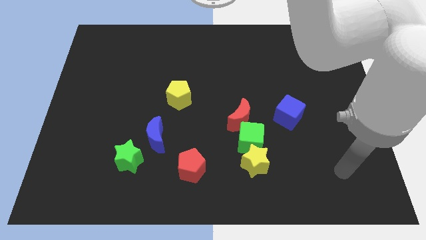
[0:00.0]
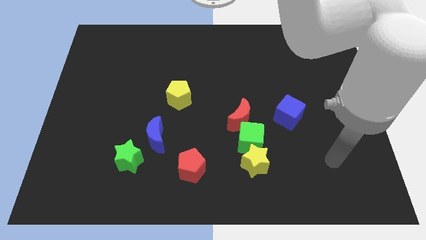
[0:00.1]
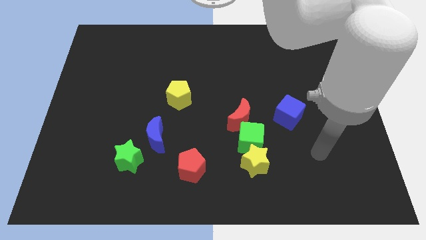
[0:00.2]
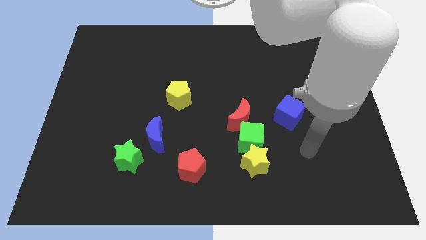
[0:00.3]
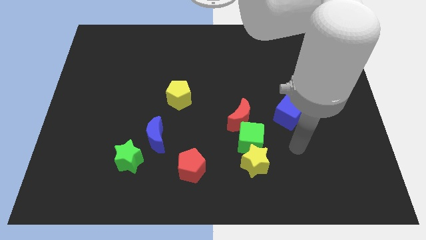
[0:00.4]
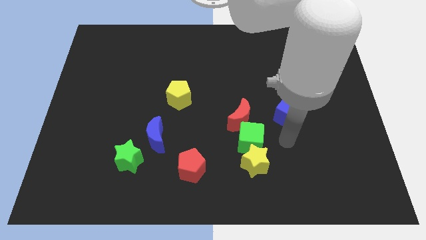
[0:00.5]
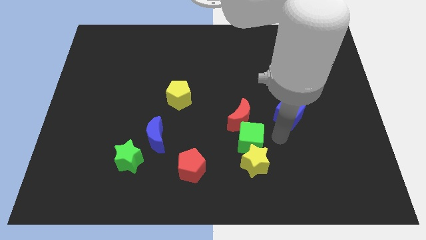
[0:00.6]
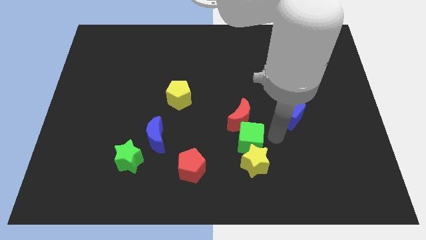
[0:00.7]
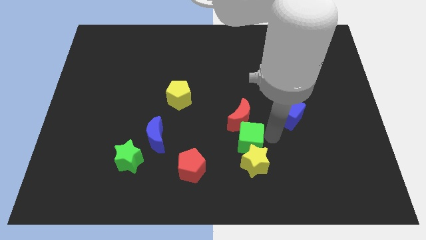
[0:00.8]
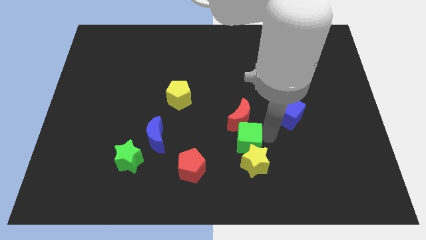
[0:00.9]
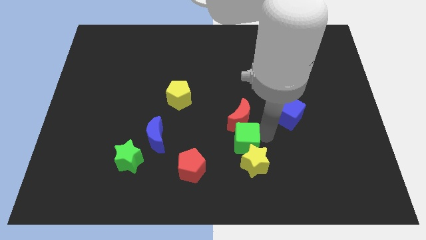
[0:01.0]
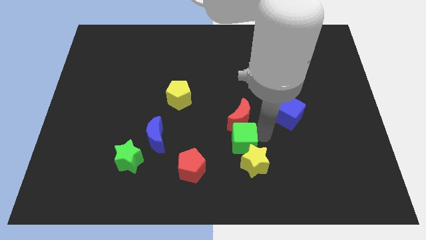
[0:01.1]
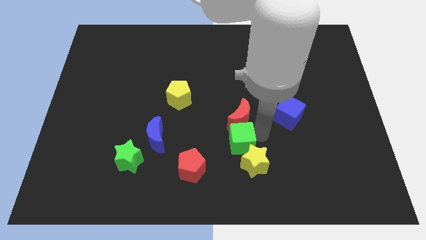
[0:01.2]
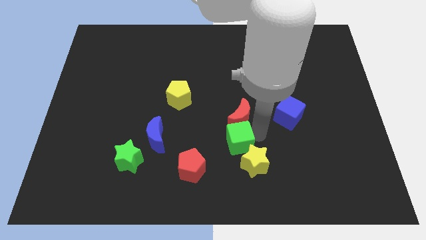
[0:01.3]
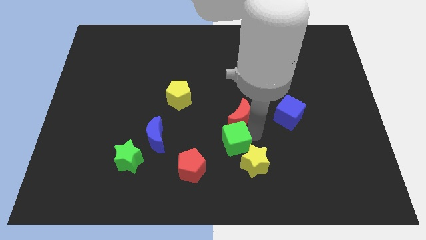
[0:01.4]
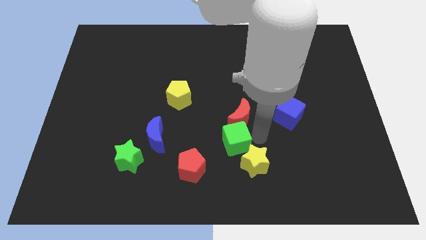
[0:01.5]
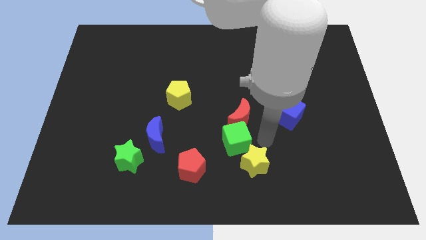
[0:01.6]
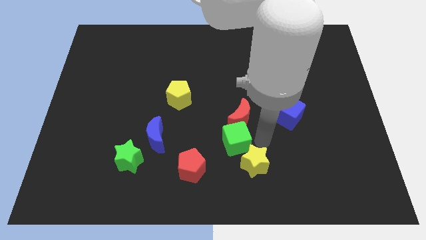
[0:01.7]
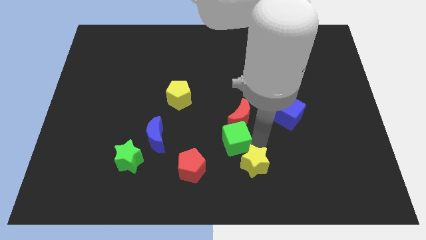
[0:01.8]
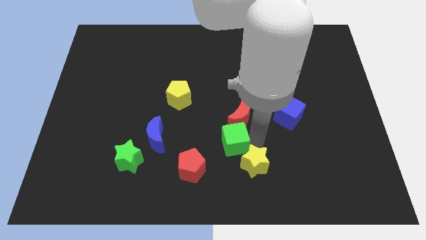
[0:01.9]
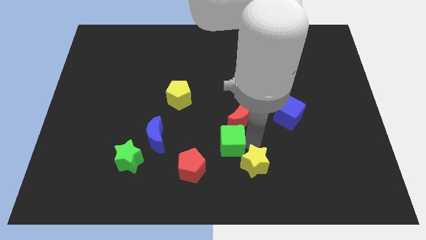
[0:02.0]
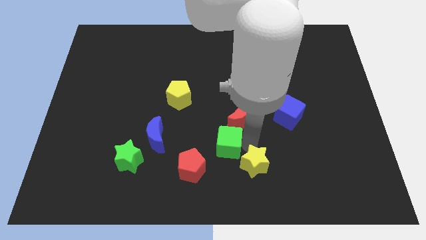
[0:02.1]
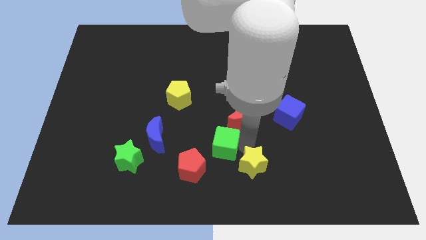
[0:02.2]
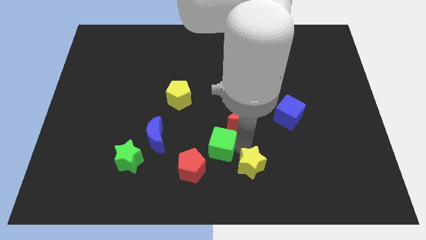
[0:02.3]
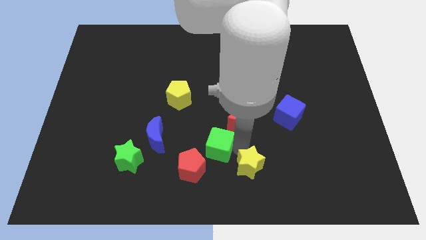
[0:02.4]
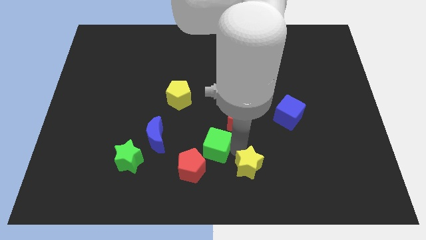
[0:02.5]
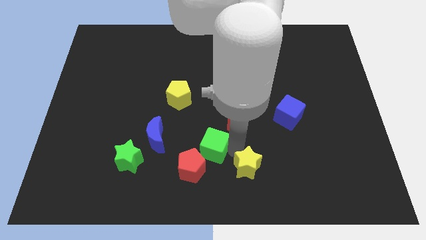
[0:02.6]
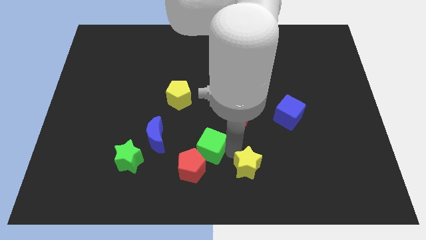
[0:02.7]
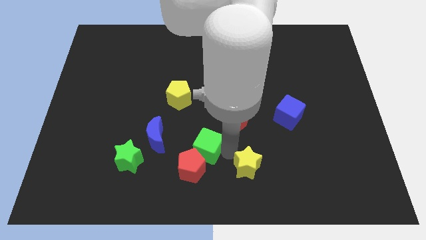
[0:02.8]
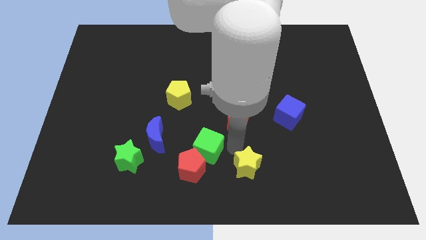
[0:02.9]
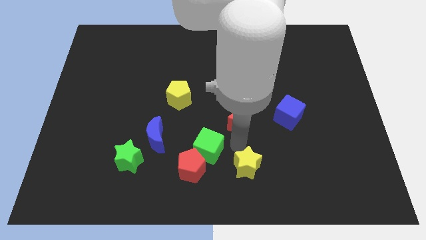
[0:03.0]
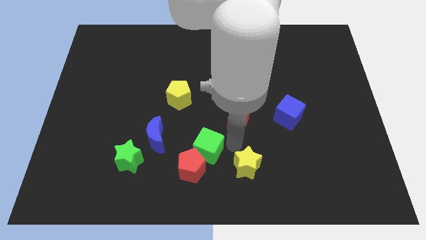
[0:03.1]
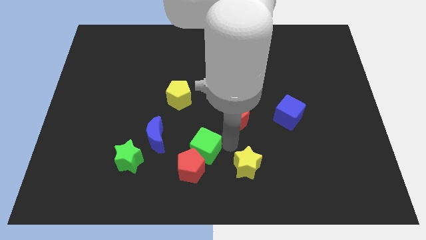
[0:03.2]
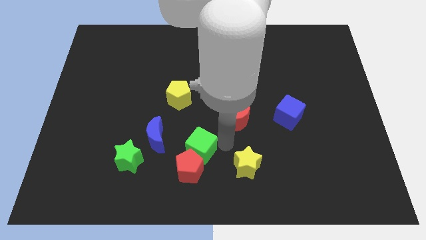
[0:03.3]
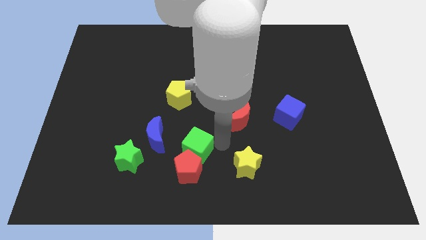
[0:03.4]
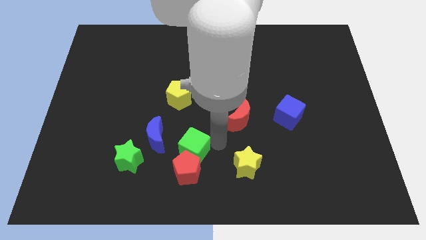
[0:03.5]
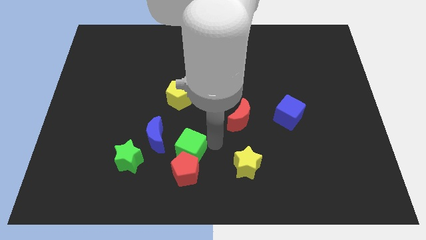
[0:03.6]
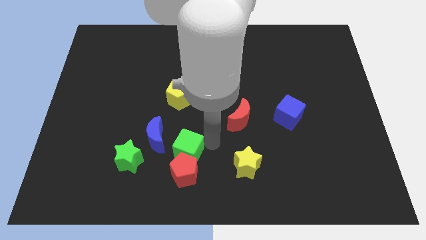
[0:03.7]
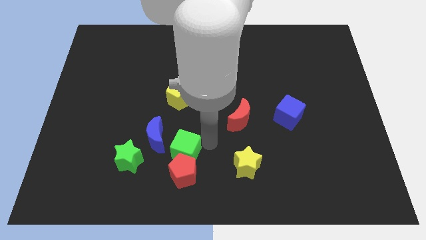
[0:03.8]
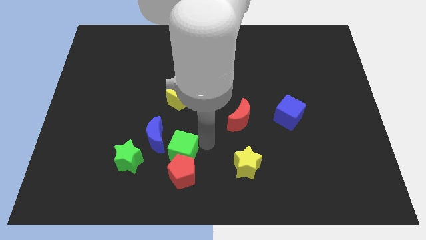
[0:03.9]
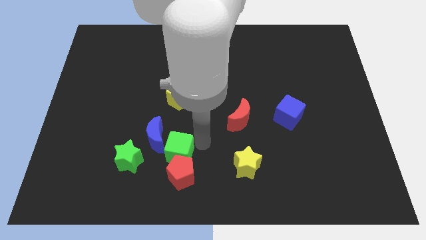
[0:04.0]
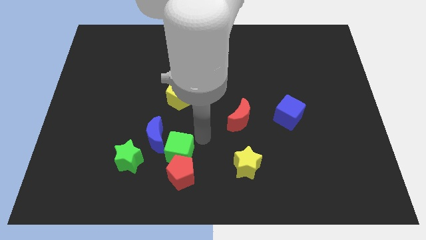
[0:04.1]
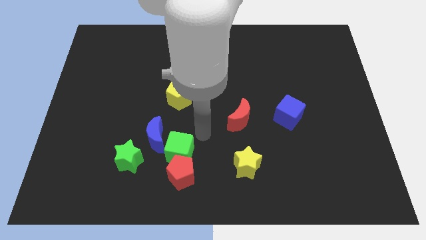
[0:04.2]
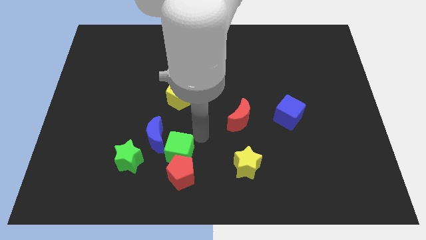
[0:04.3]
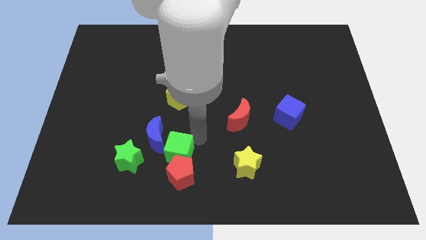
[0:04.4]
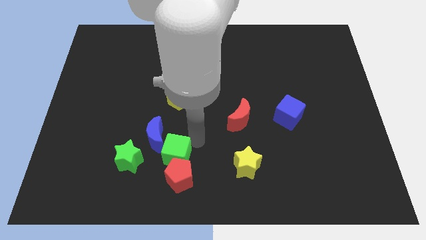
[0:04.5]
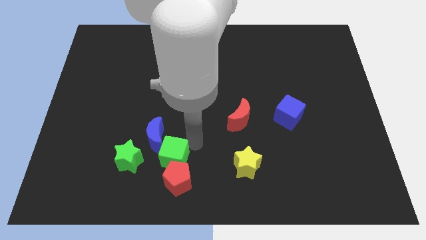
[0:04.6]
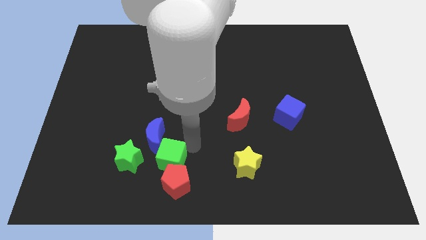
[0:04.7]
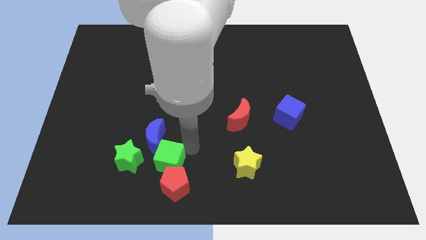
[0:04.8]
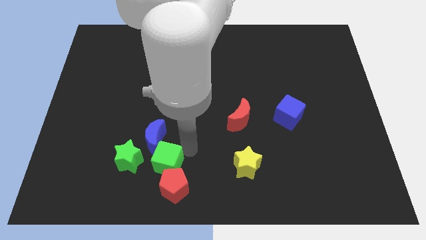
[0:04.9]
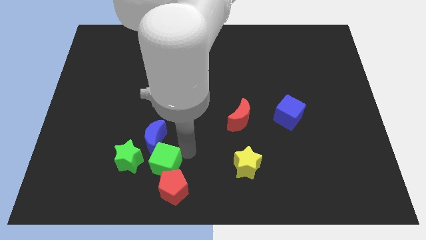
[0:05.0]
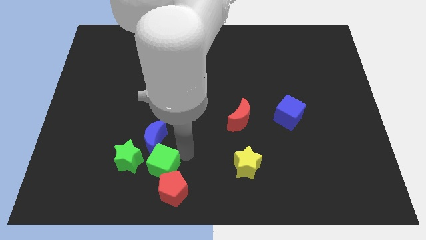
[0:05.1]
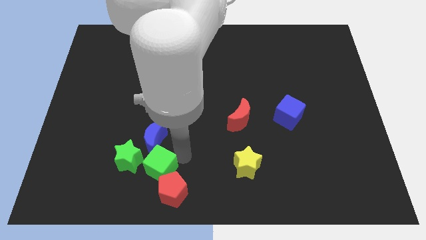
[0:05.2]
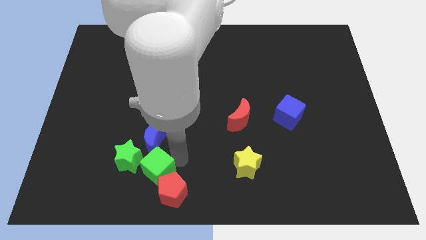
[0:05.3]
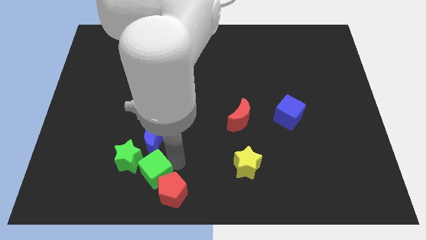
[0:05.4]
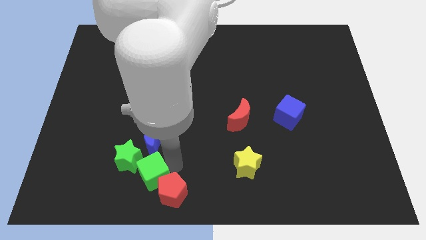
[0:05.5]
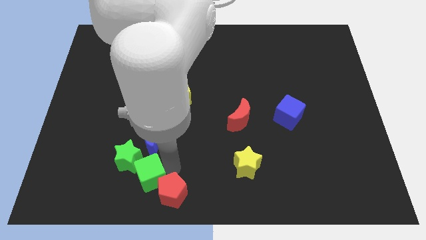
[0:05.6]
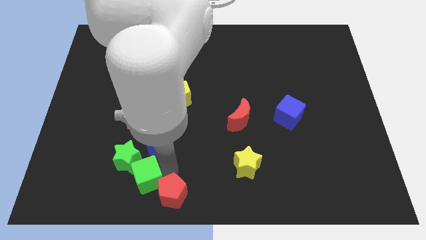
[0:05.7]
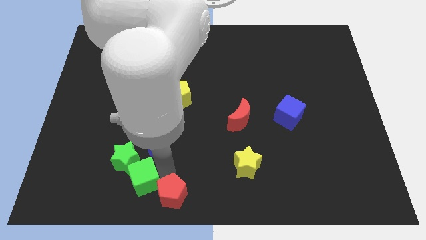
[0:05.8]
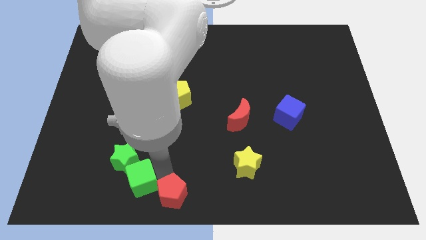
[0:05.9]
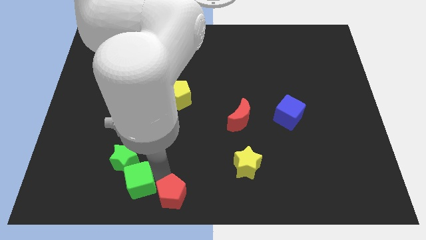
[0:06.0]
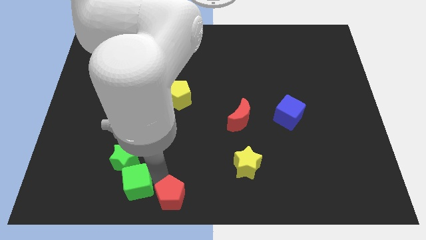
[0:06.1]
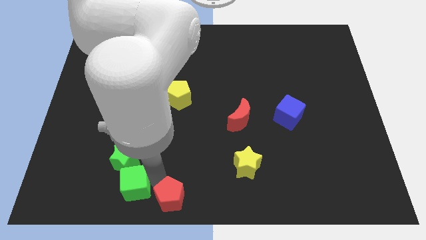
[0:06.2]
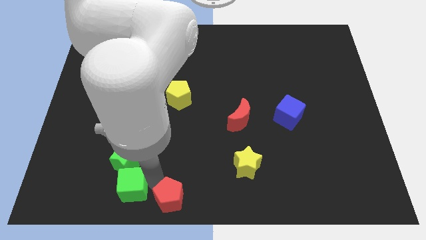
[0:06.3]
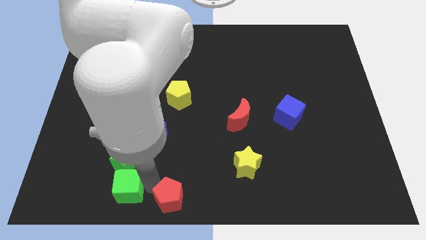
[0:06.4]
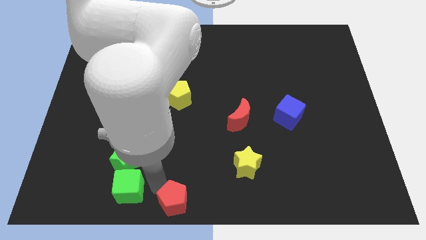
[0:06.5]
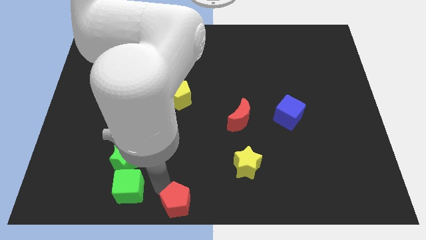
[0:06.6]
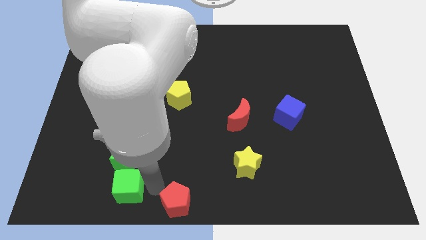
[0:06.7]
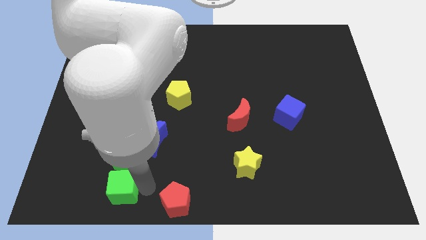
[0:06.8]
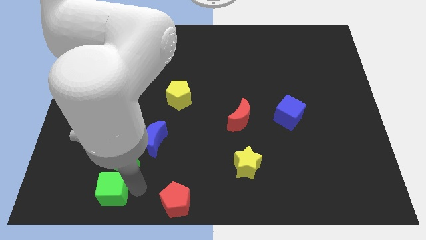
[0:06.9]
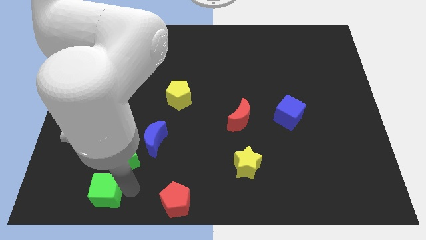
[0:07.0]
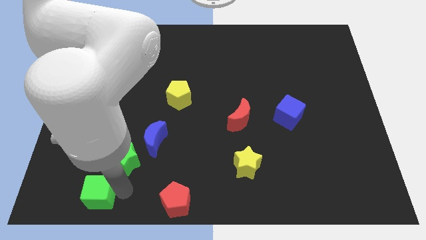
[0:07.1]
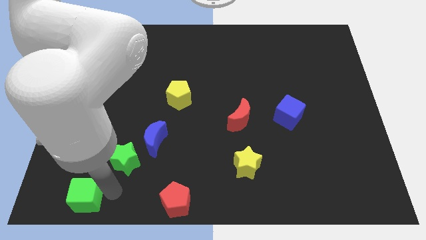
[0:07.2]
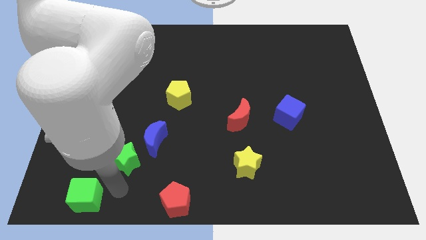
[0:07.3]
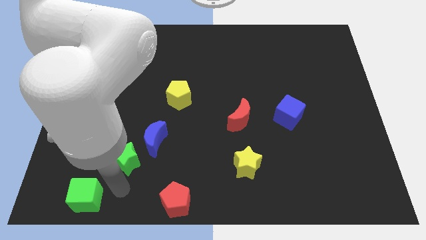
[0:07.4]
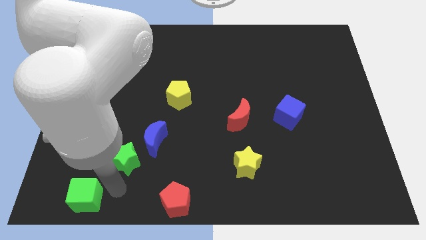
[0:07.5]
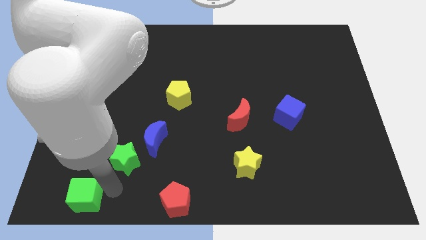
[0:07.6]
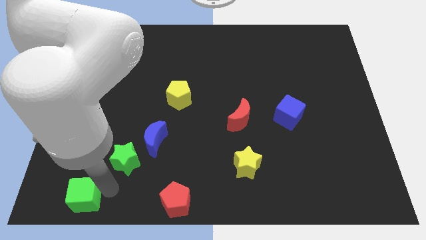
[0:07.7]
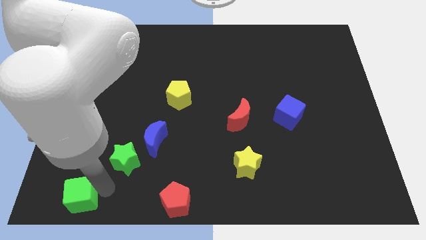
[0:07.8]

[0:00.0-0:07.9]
move the green cube to the lower left corner
